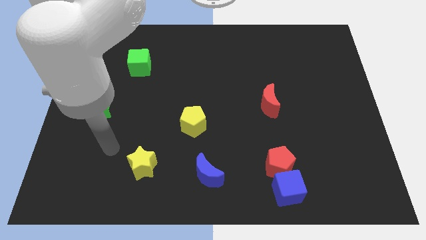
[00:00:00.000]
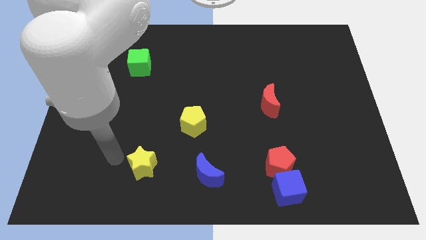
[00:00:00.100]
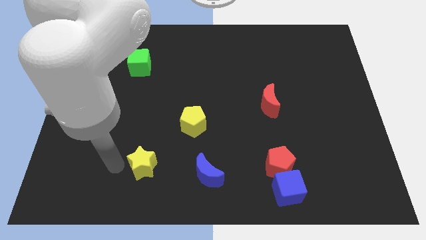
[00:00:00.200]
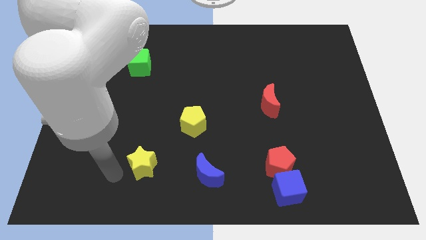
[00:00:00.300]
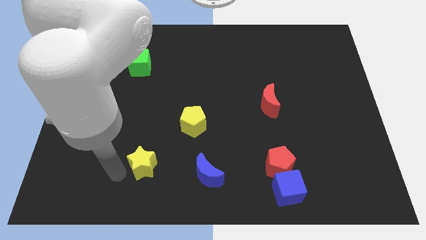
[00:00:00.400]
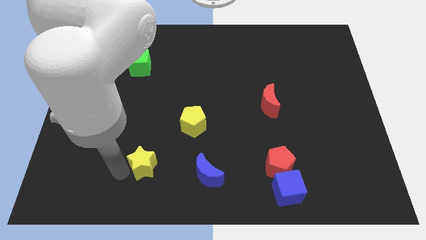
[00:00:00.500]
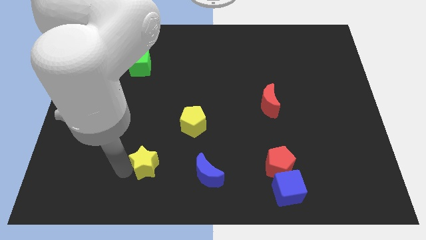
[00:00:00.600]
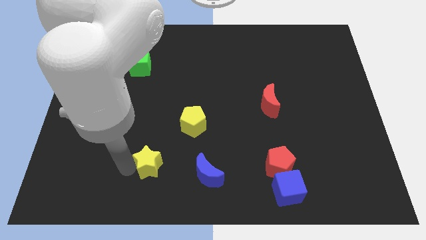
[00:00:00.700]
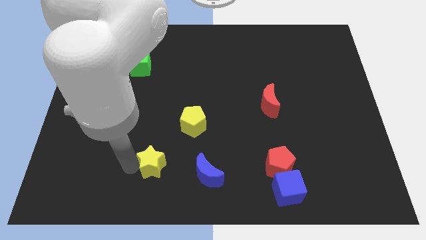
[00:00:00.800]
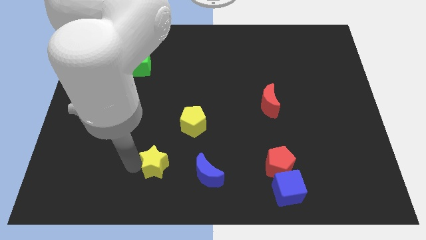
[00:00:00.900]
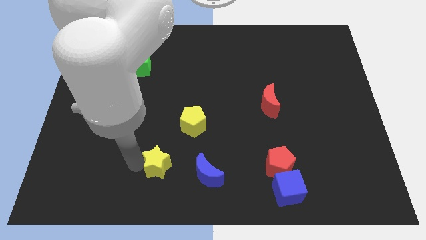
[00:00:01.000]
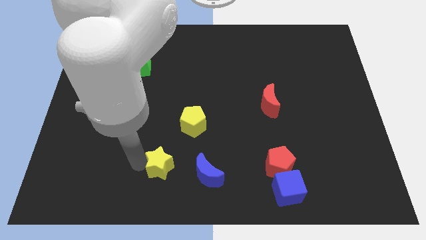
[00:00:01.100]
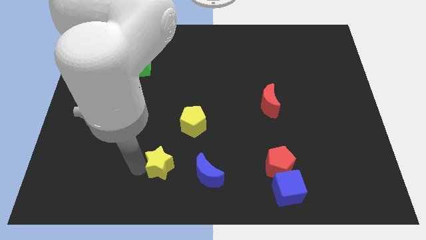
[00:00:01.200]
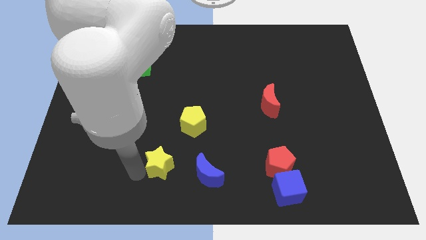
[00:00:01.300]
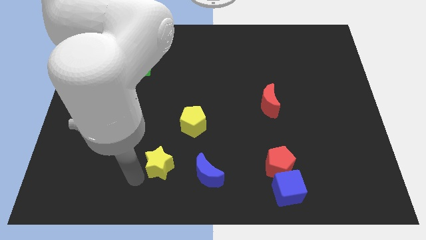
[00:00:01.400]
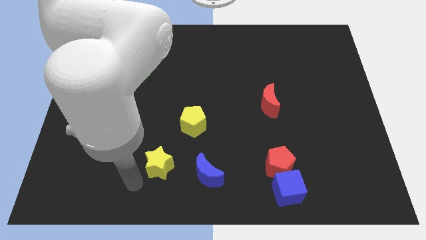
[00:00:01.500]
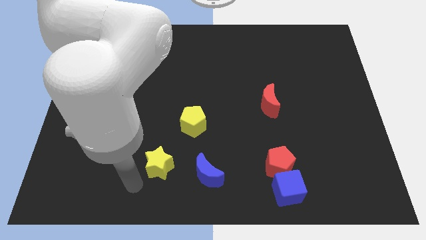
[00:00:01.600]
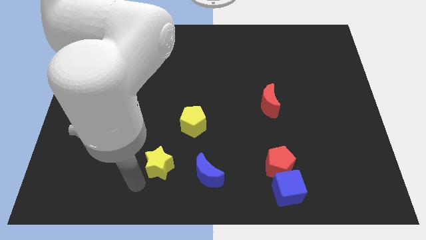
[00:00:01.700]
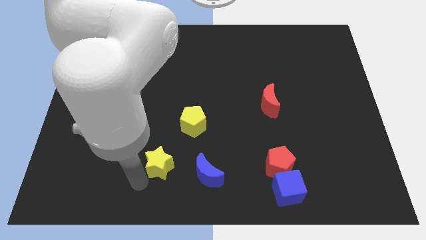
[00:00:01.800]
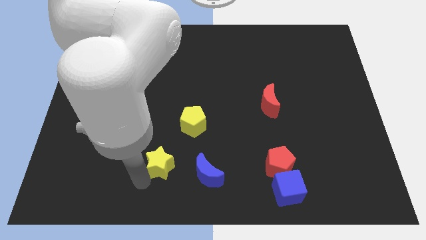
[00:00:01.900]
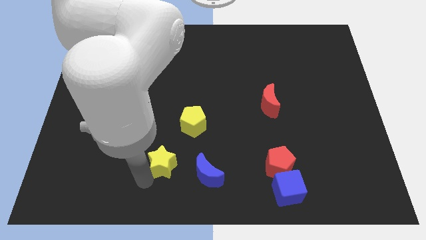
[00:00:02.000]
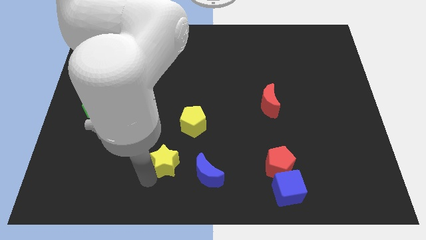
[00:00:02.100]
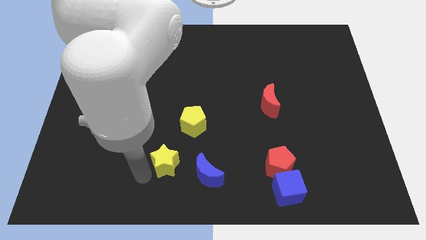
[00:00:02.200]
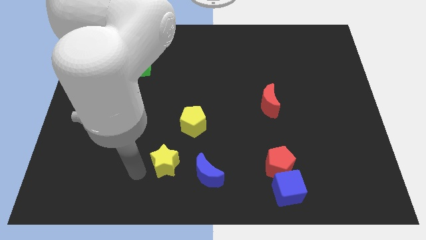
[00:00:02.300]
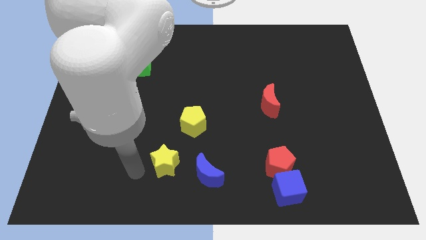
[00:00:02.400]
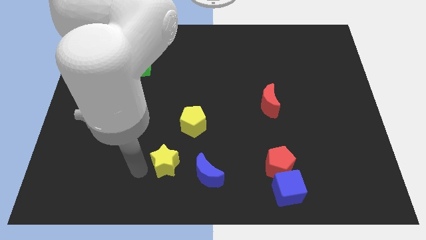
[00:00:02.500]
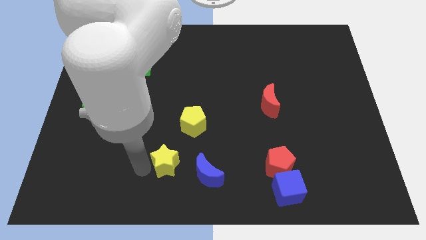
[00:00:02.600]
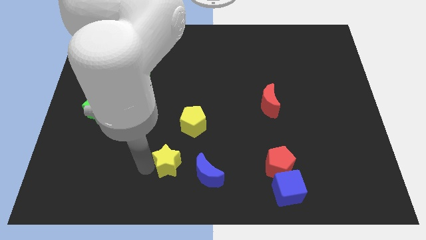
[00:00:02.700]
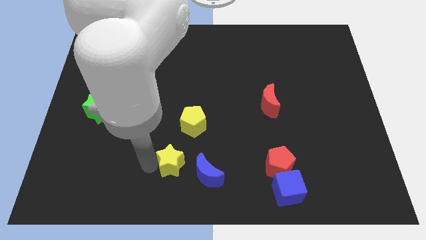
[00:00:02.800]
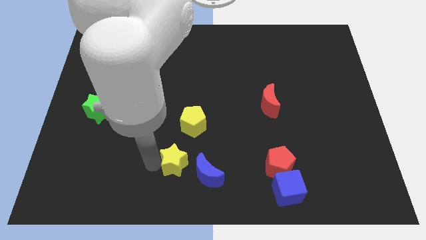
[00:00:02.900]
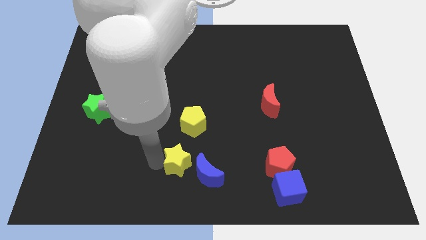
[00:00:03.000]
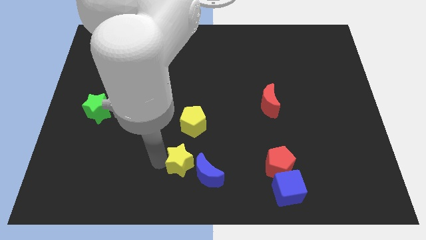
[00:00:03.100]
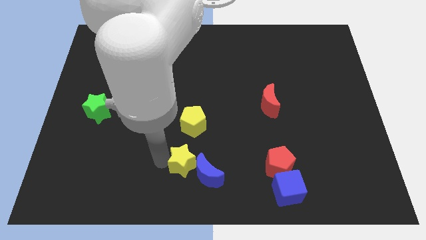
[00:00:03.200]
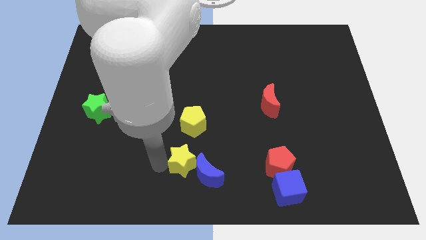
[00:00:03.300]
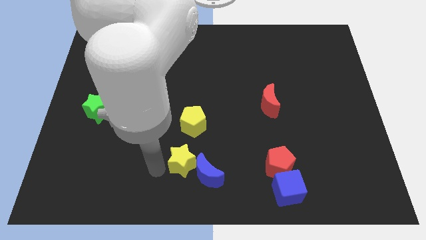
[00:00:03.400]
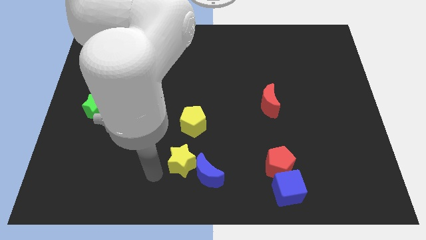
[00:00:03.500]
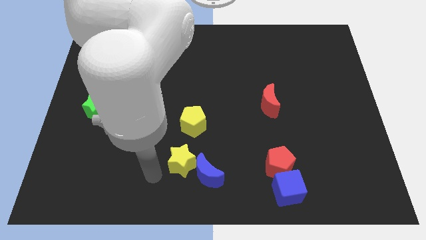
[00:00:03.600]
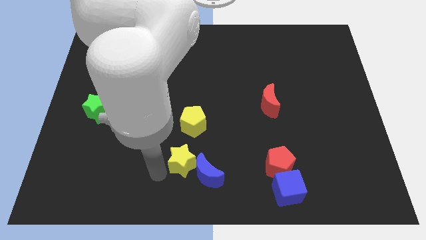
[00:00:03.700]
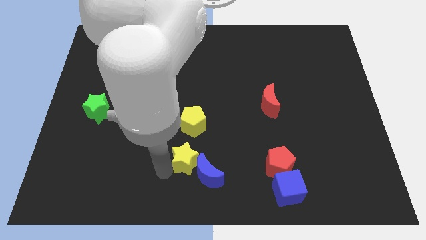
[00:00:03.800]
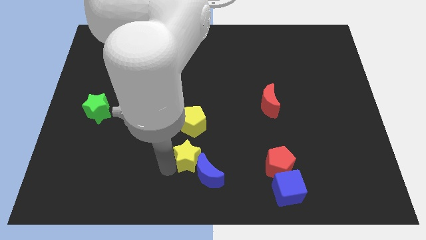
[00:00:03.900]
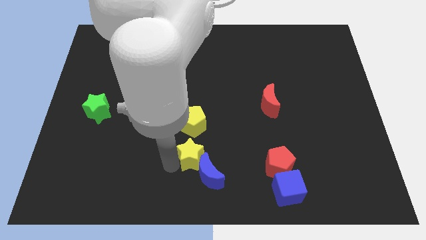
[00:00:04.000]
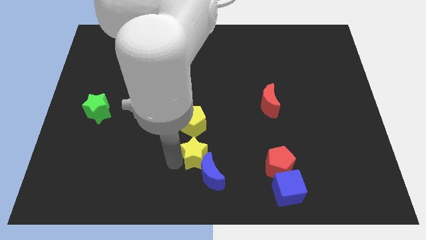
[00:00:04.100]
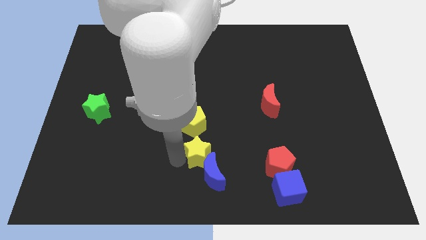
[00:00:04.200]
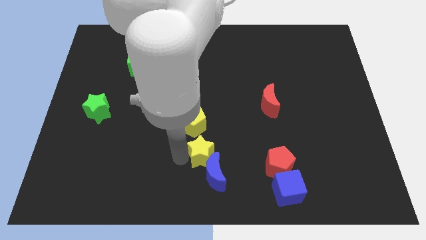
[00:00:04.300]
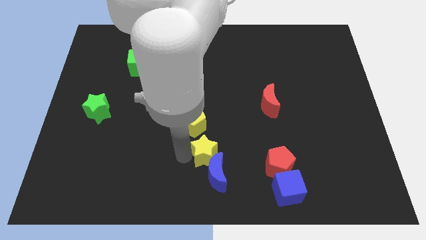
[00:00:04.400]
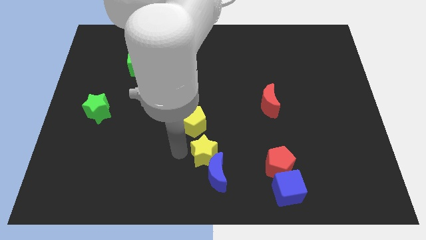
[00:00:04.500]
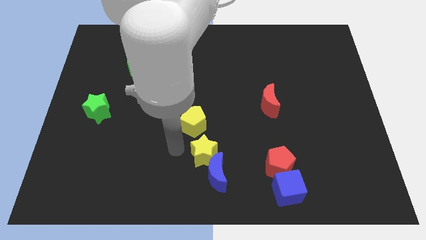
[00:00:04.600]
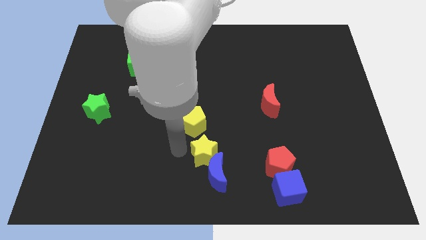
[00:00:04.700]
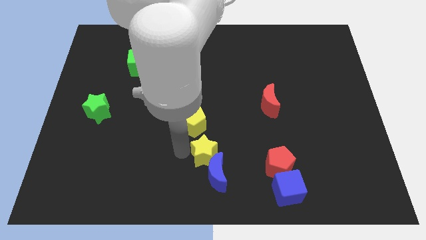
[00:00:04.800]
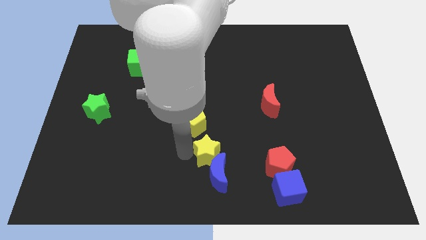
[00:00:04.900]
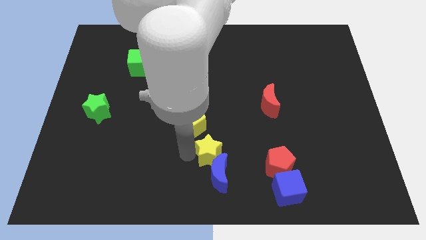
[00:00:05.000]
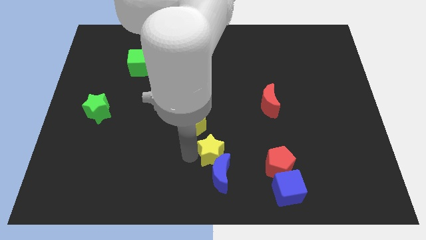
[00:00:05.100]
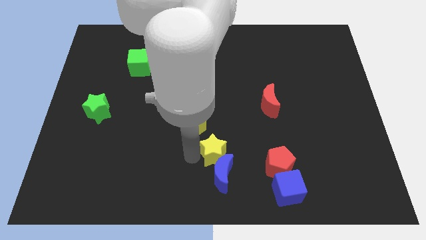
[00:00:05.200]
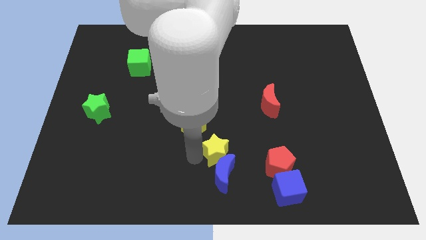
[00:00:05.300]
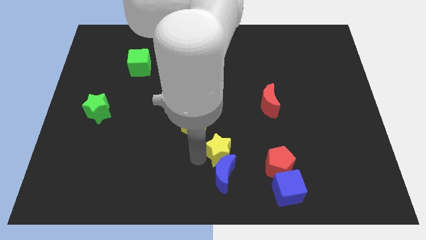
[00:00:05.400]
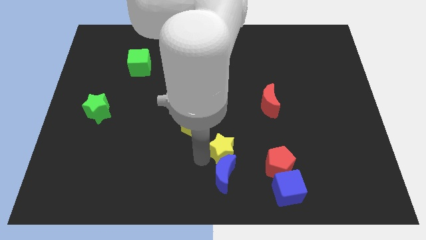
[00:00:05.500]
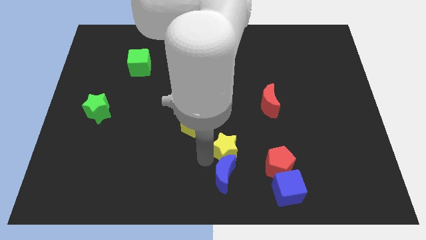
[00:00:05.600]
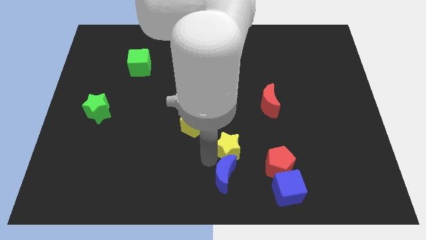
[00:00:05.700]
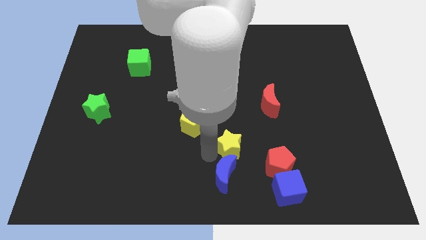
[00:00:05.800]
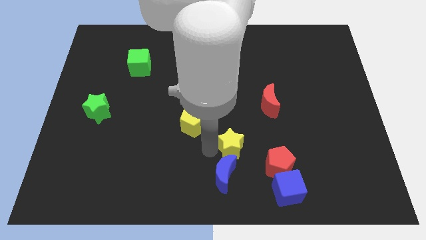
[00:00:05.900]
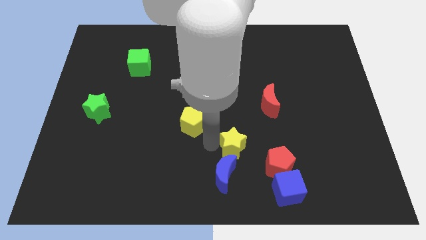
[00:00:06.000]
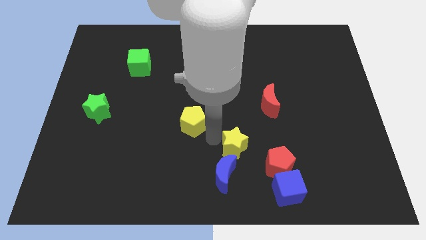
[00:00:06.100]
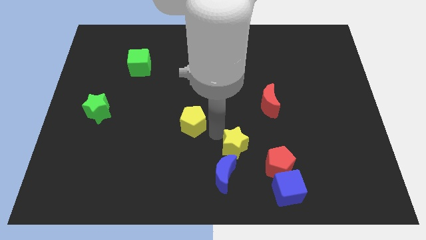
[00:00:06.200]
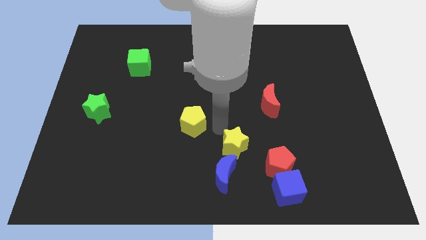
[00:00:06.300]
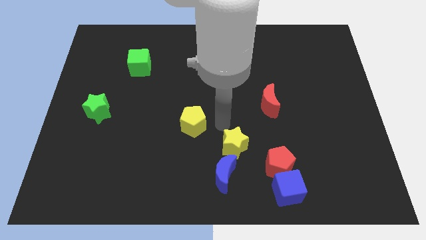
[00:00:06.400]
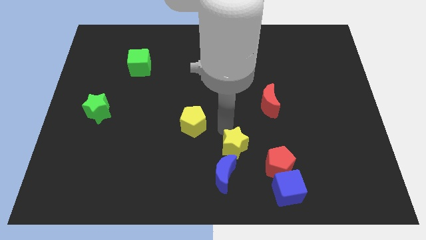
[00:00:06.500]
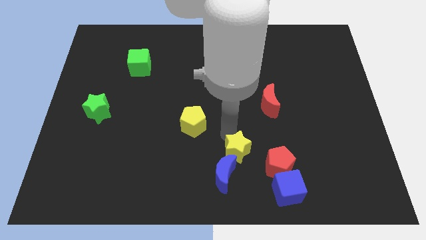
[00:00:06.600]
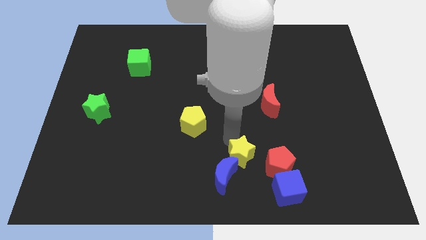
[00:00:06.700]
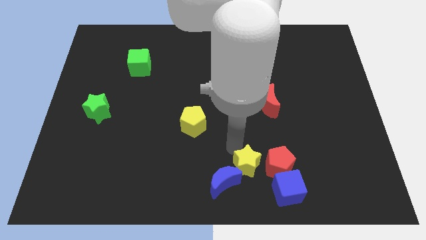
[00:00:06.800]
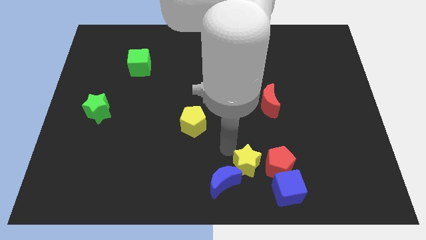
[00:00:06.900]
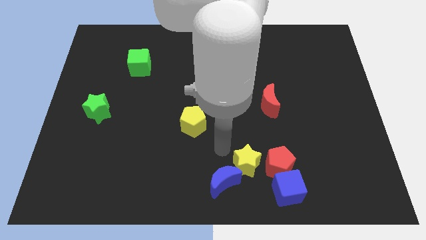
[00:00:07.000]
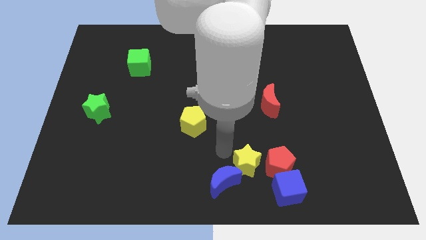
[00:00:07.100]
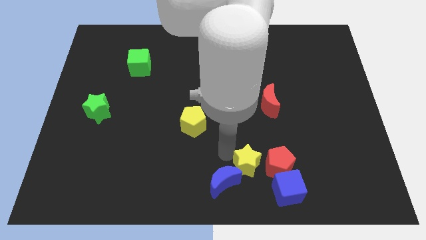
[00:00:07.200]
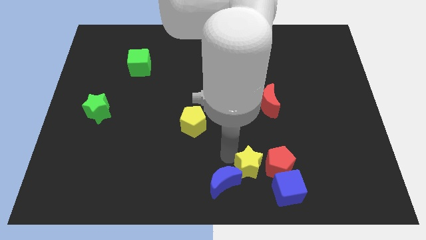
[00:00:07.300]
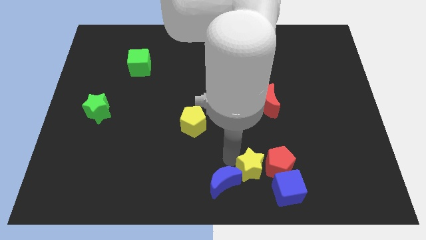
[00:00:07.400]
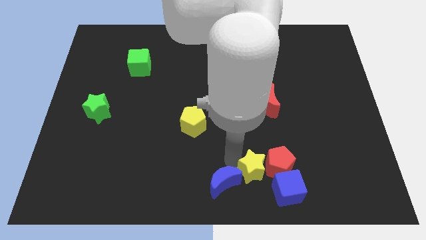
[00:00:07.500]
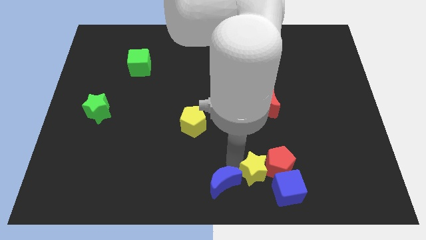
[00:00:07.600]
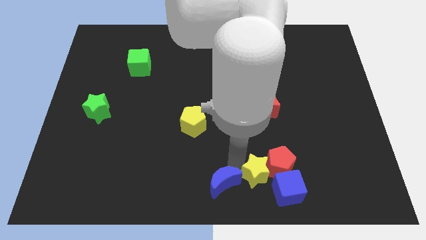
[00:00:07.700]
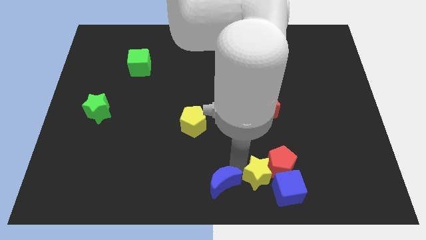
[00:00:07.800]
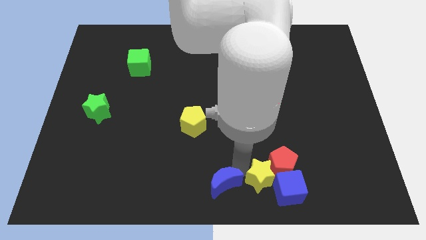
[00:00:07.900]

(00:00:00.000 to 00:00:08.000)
move the yellow star to the blue cube
